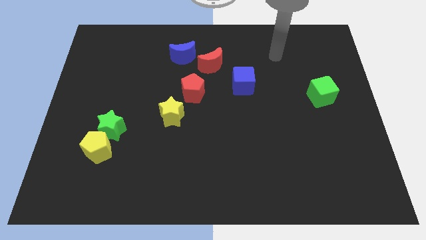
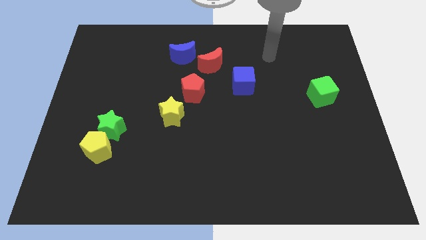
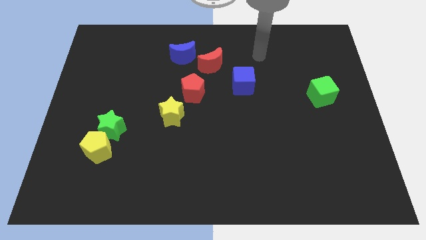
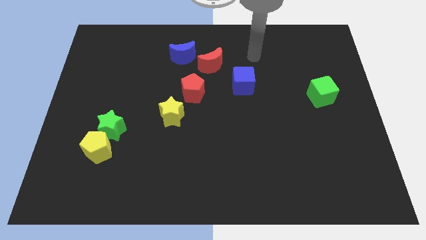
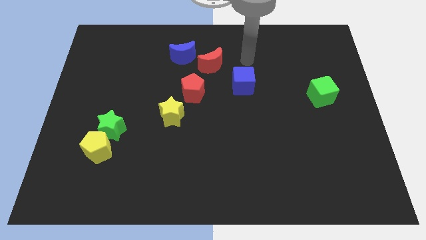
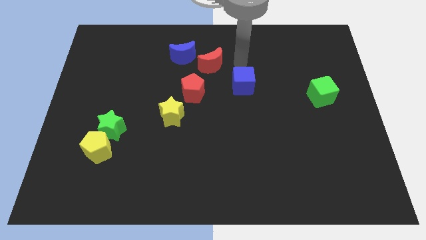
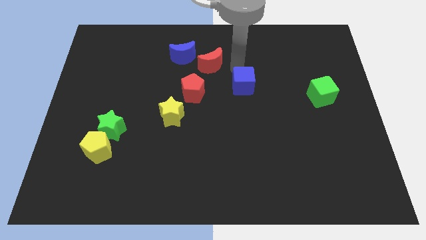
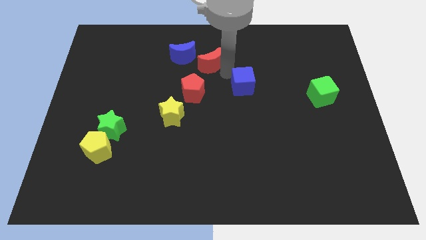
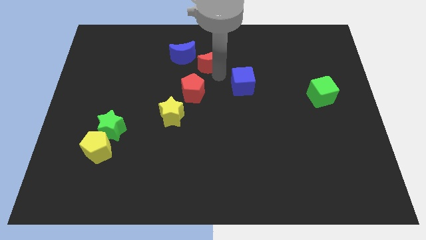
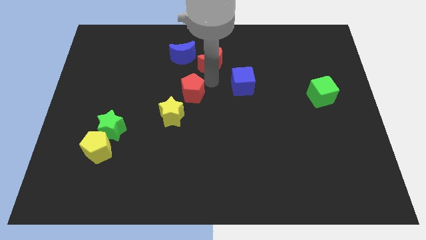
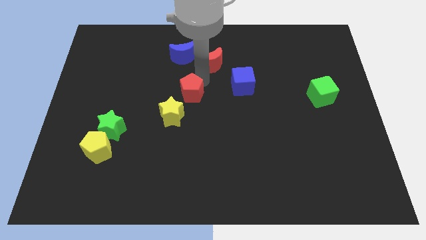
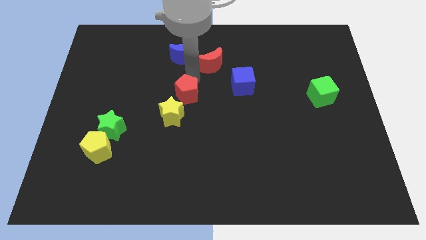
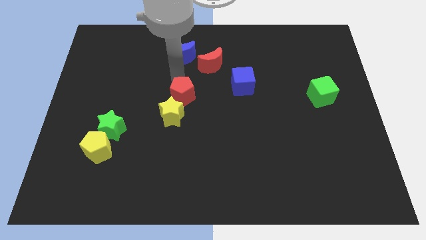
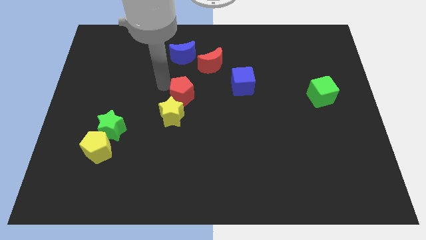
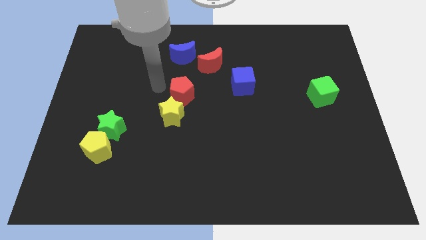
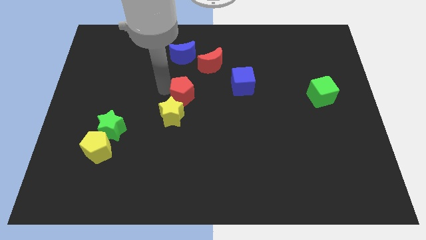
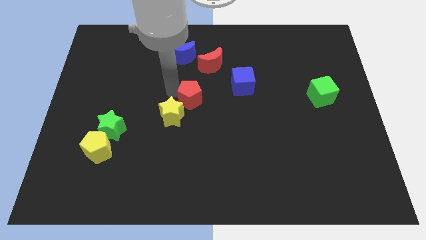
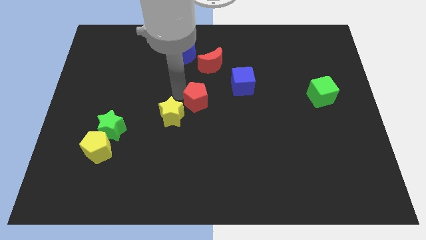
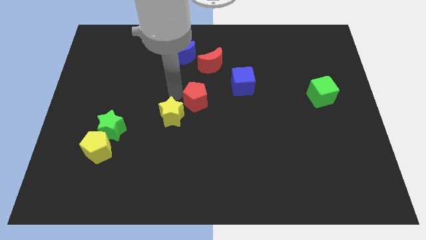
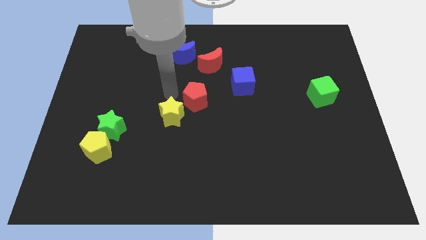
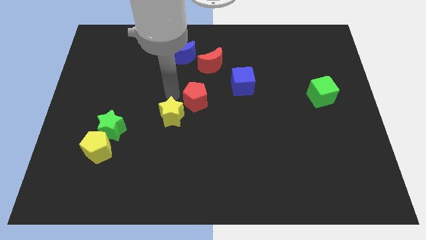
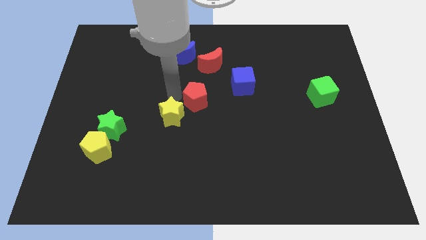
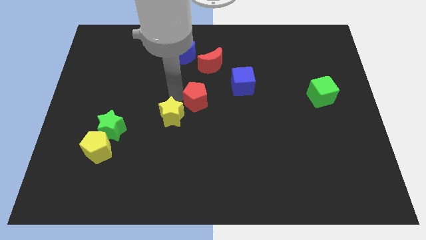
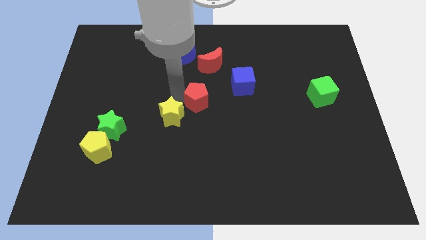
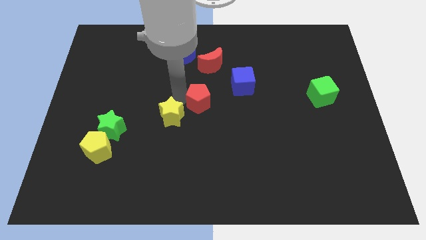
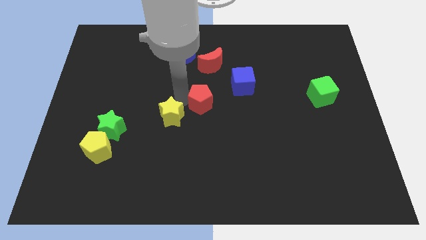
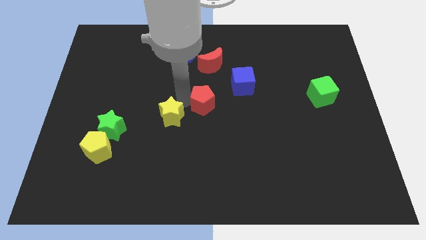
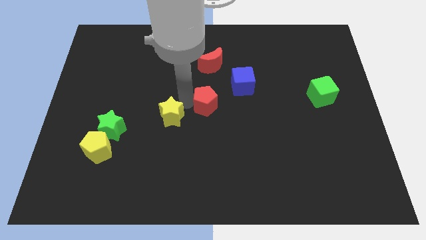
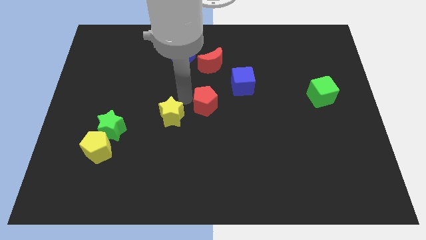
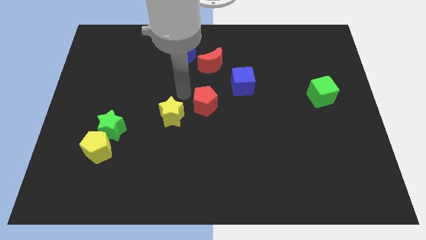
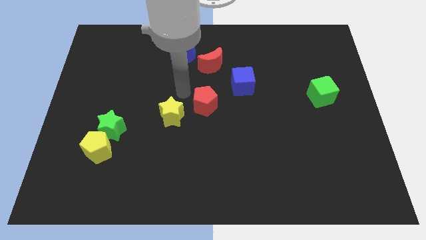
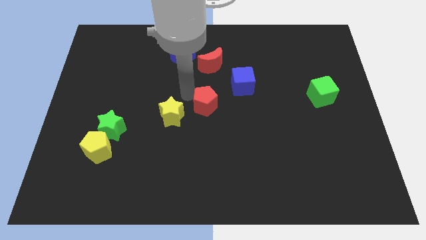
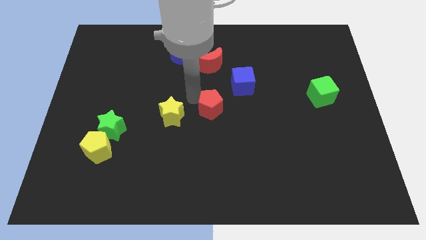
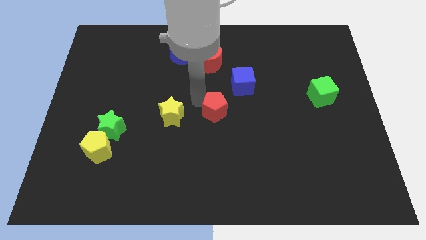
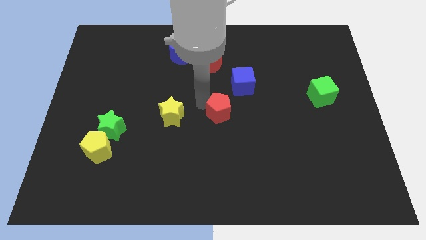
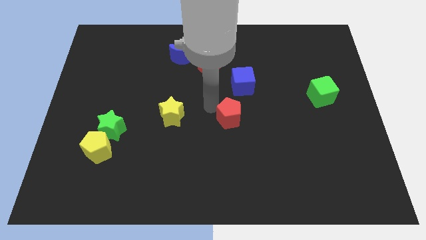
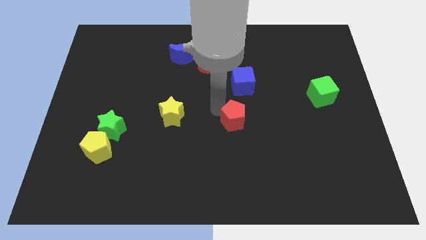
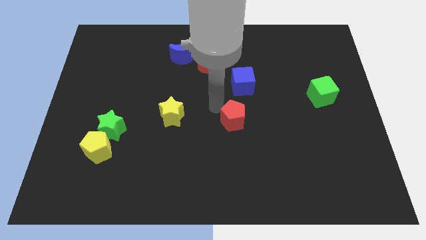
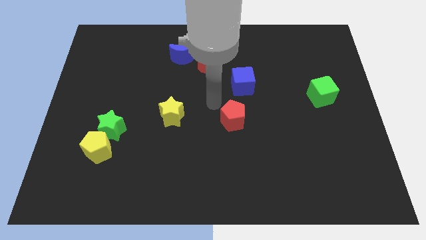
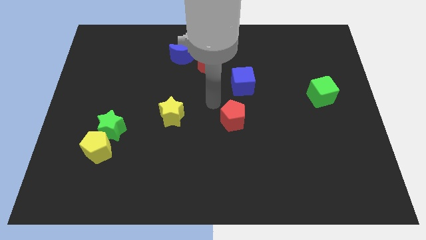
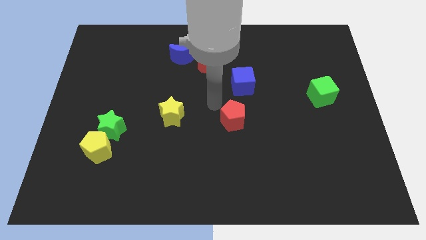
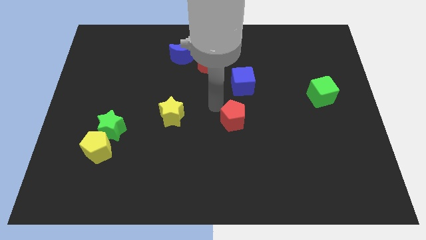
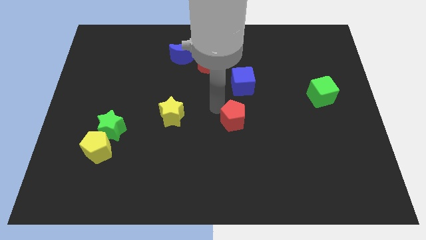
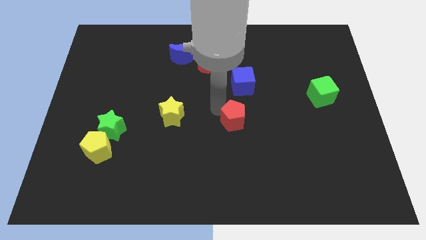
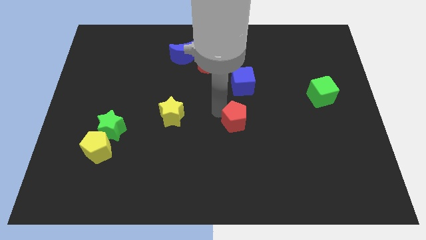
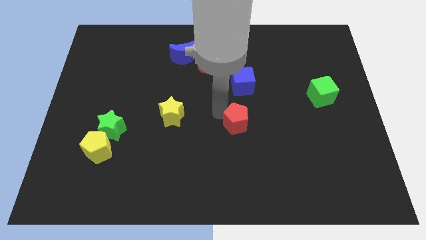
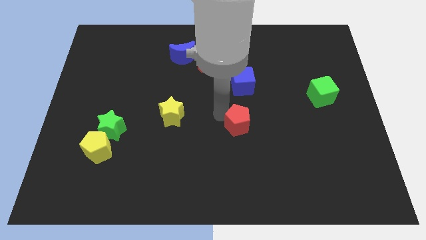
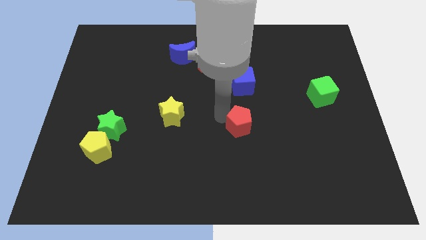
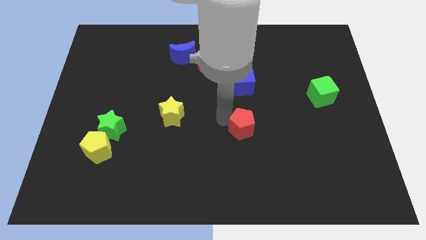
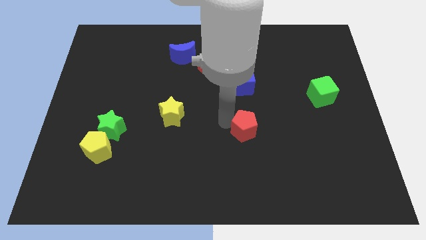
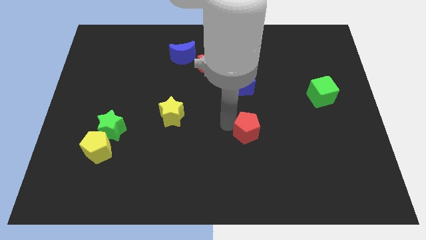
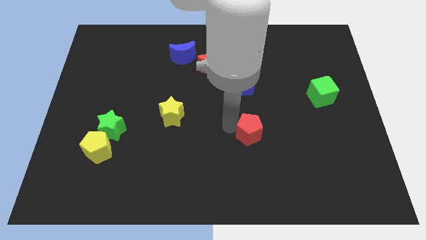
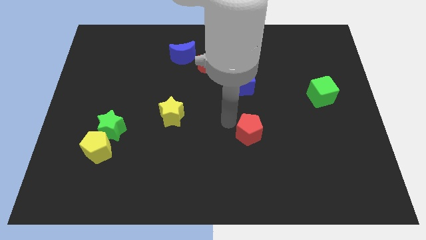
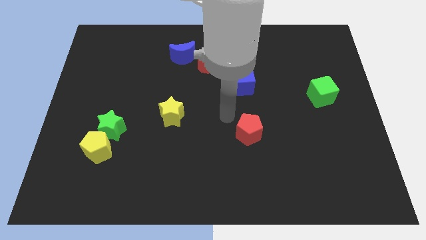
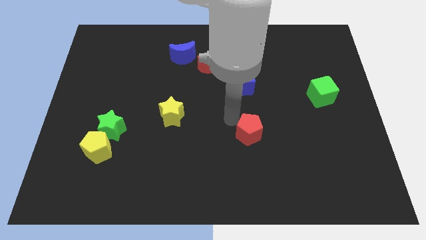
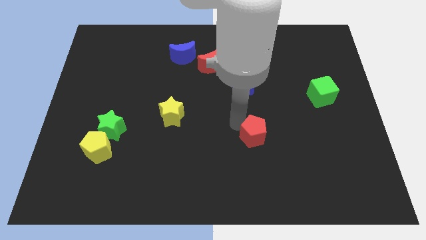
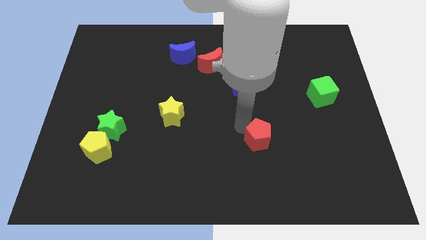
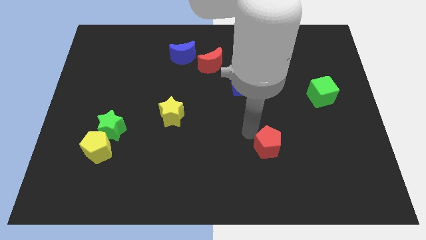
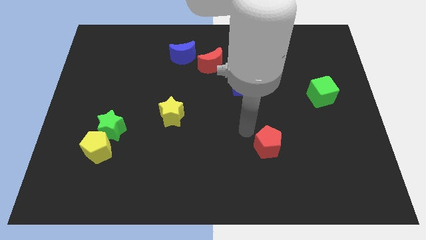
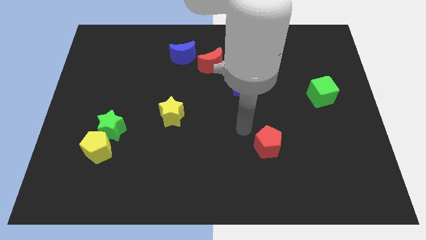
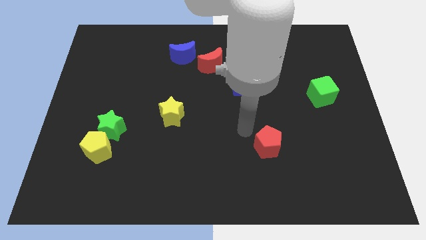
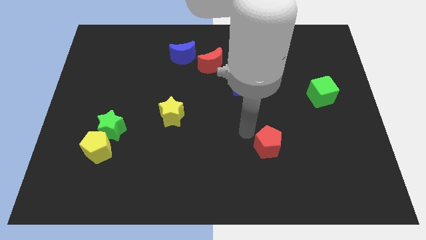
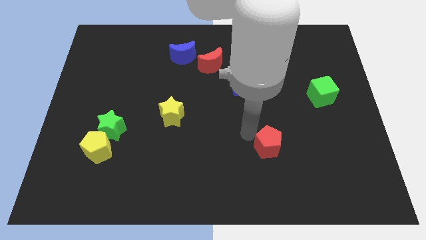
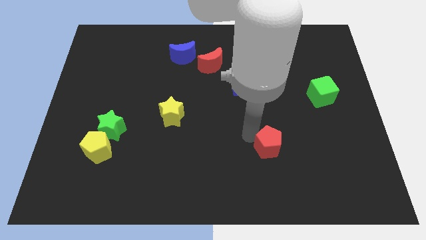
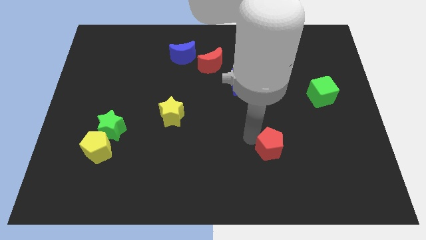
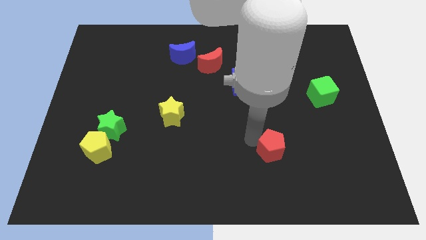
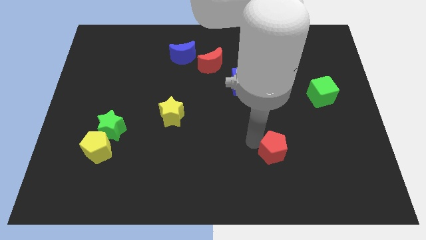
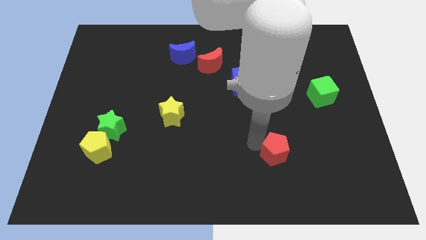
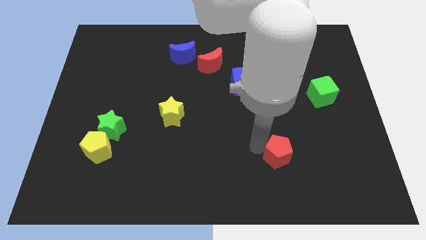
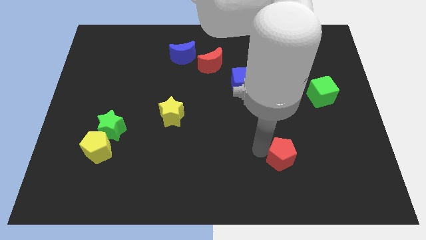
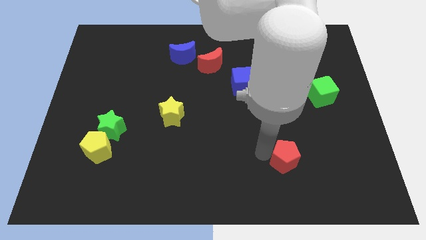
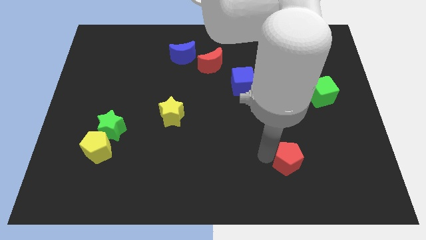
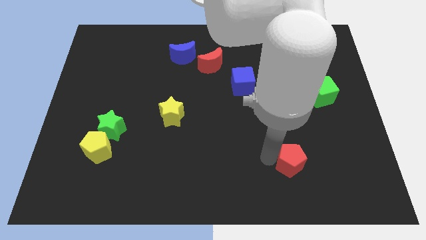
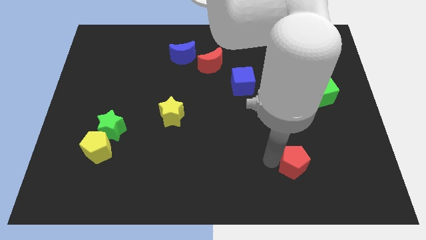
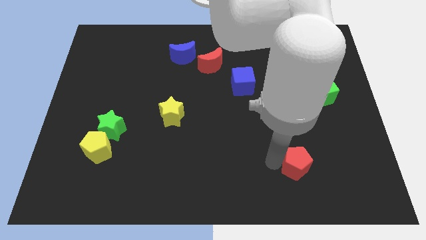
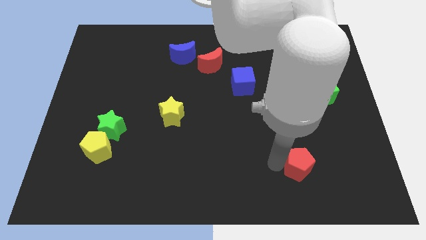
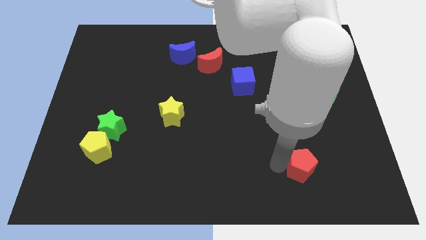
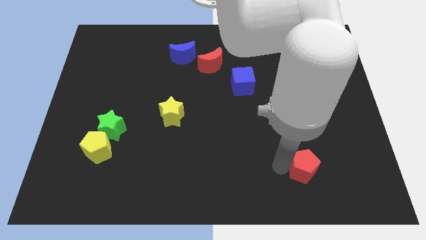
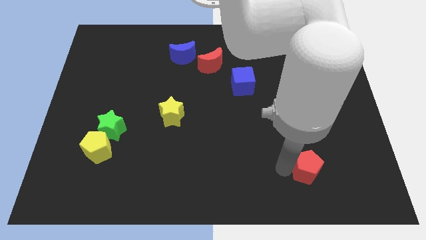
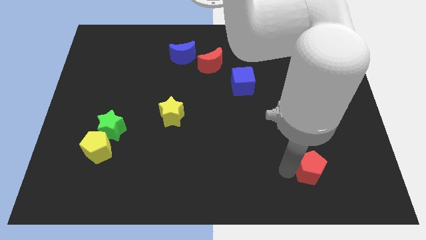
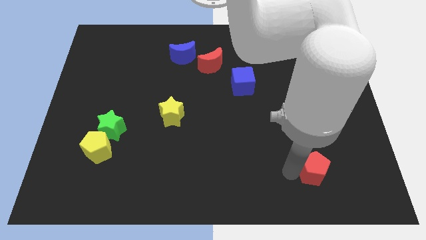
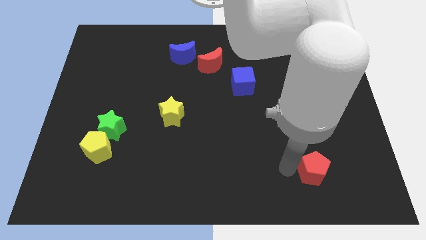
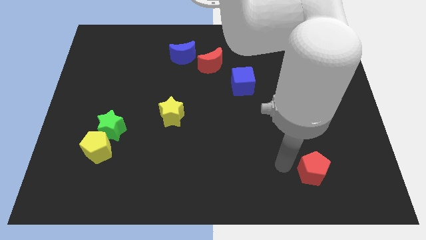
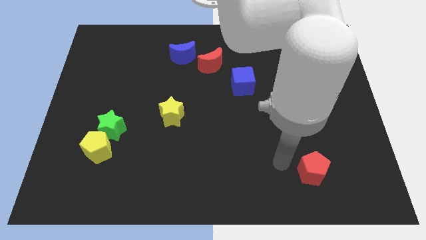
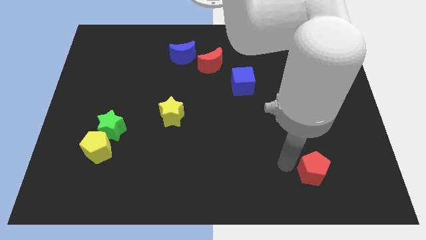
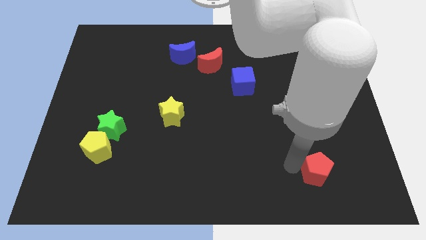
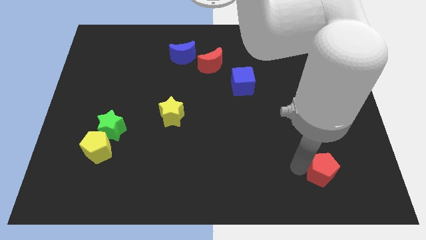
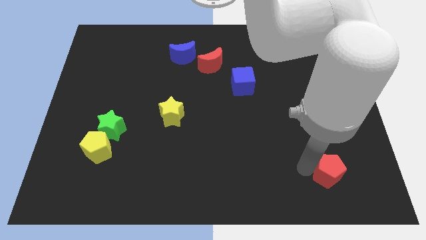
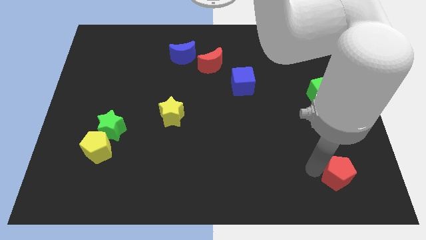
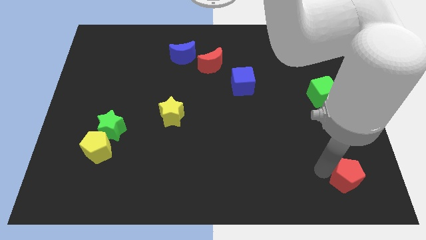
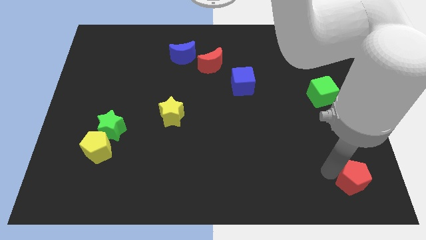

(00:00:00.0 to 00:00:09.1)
push the red pentagon to the bottom right corner
